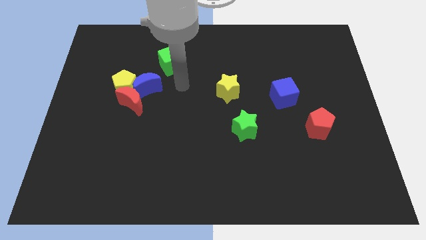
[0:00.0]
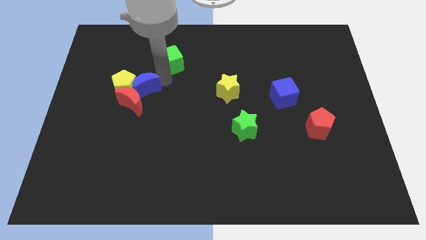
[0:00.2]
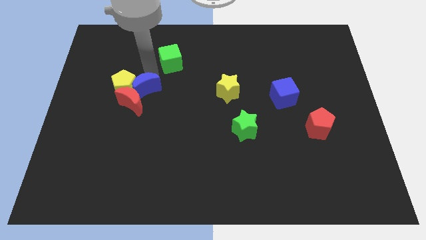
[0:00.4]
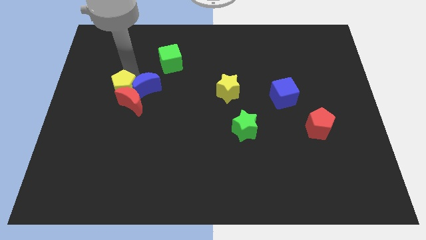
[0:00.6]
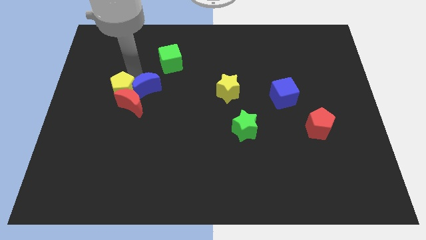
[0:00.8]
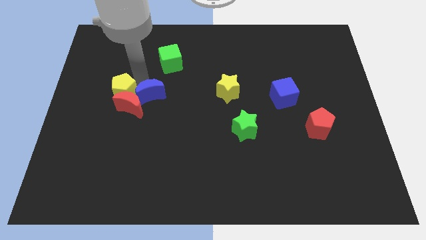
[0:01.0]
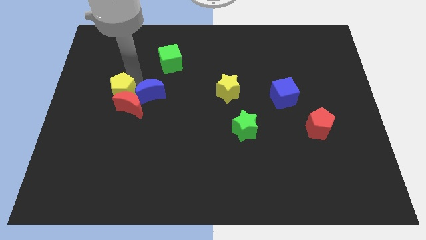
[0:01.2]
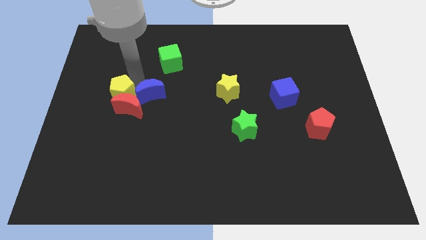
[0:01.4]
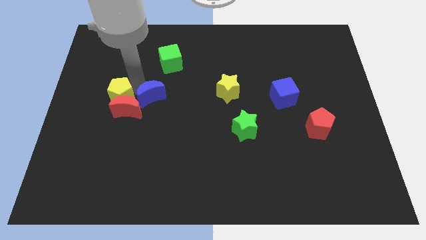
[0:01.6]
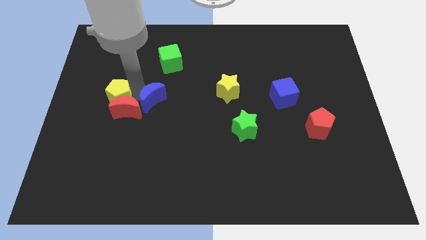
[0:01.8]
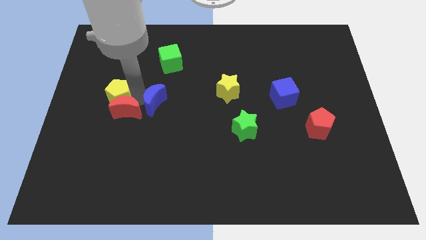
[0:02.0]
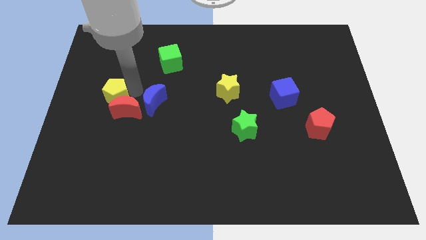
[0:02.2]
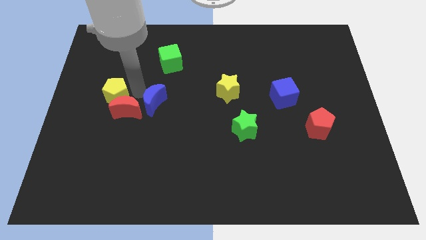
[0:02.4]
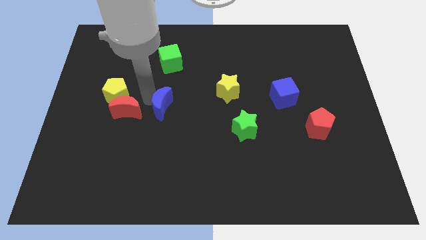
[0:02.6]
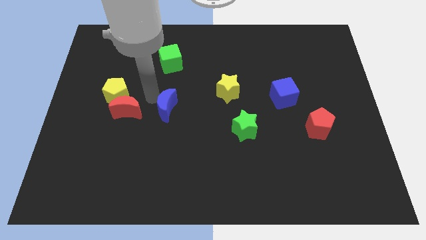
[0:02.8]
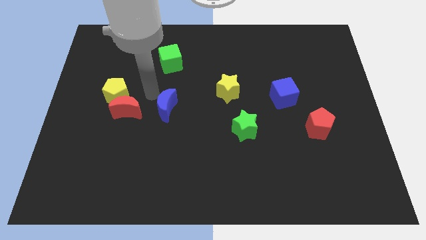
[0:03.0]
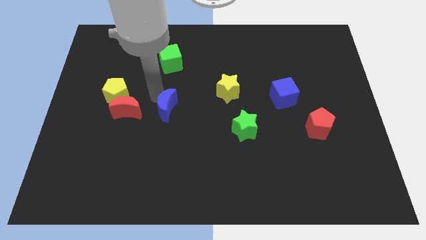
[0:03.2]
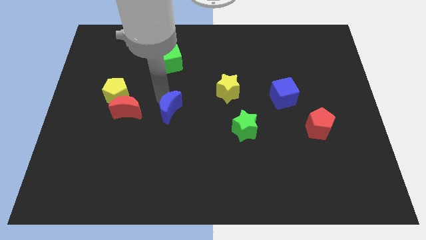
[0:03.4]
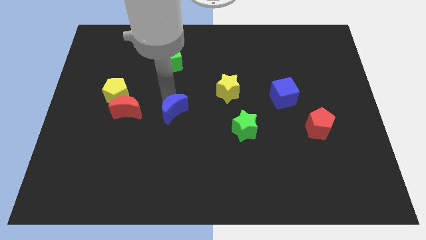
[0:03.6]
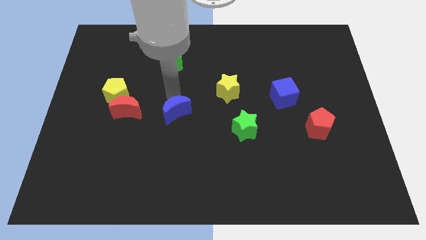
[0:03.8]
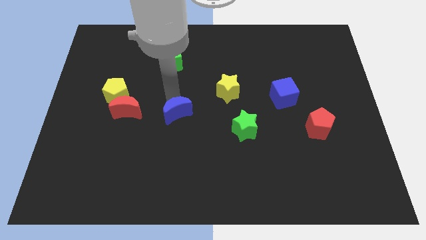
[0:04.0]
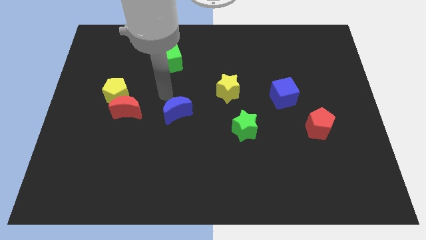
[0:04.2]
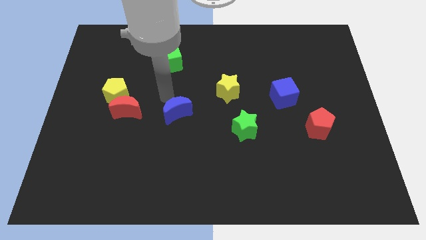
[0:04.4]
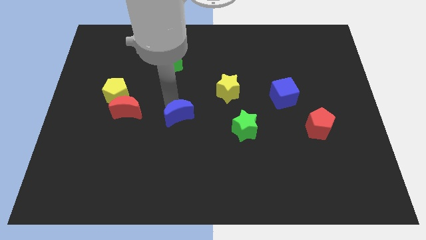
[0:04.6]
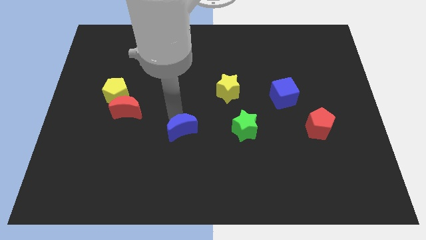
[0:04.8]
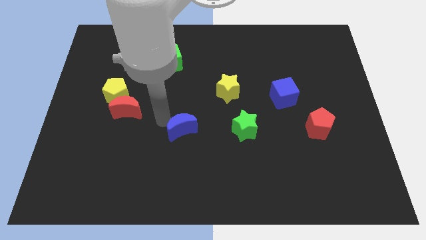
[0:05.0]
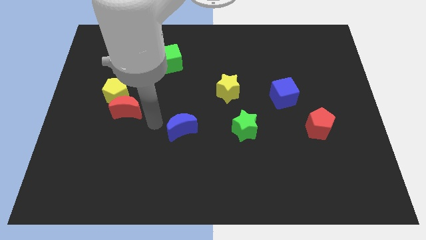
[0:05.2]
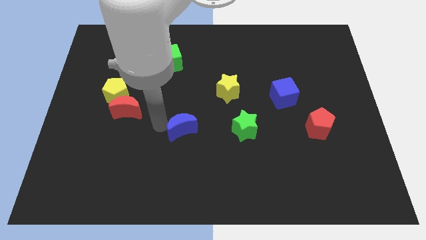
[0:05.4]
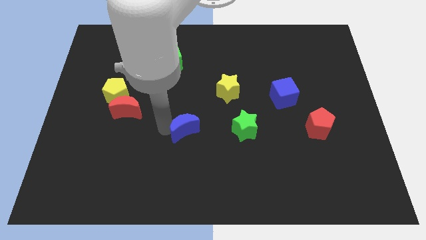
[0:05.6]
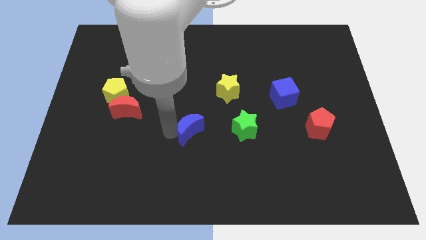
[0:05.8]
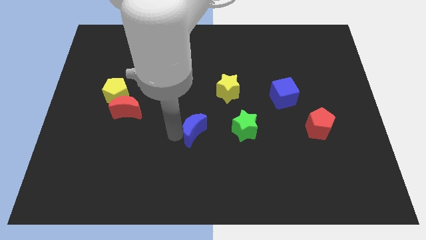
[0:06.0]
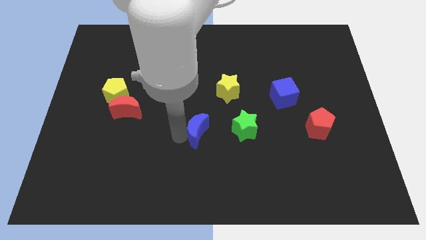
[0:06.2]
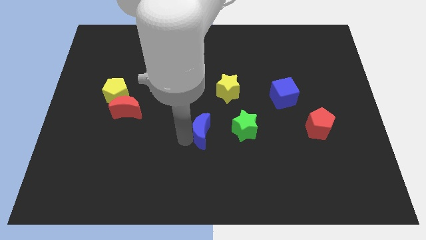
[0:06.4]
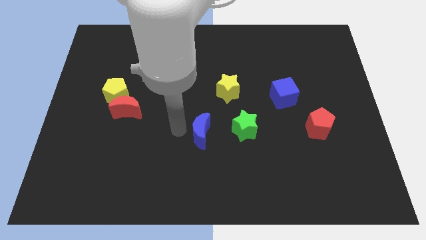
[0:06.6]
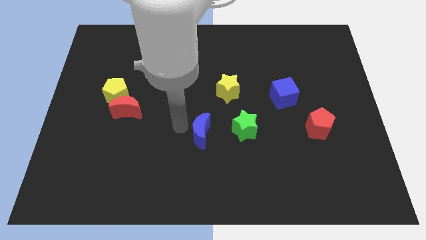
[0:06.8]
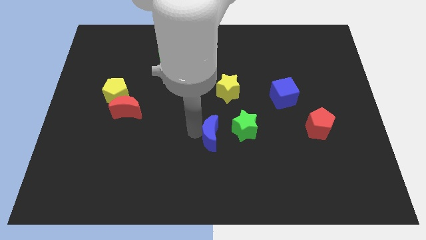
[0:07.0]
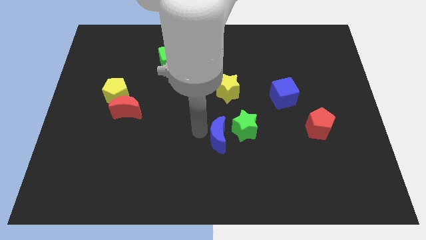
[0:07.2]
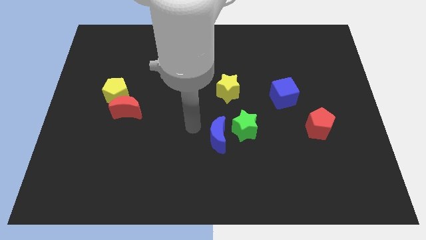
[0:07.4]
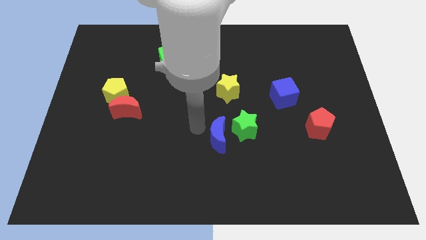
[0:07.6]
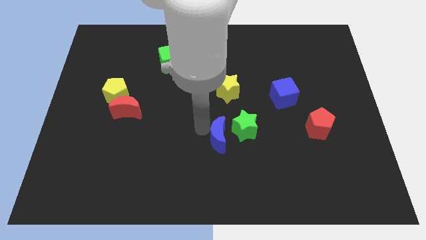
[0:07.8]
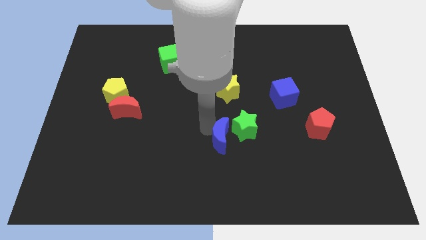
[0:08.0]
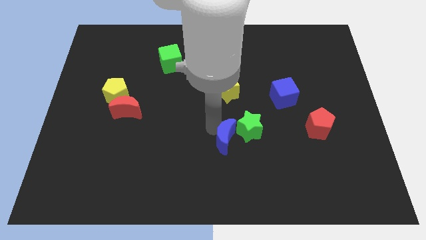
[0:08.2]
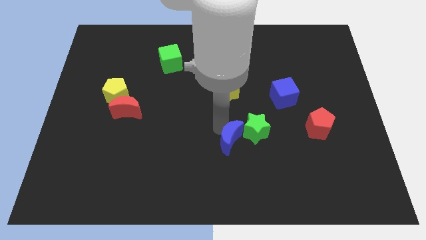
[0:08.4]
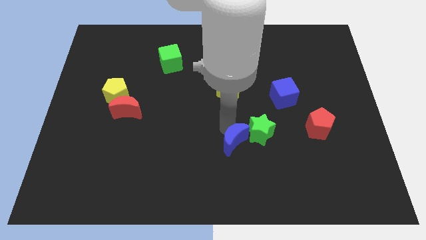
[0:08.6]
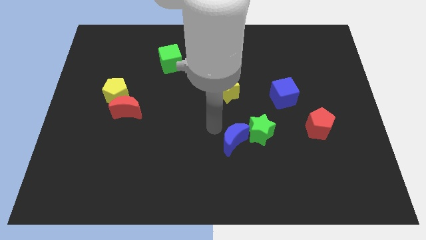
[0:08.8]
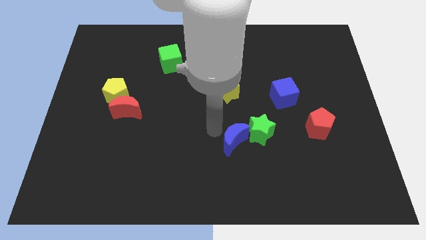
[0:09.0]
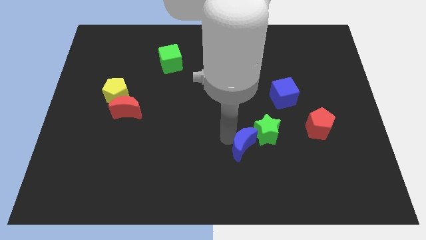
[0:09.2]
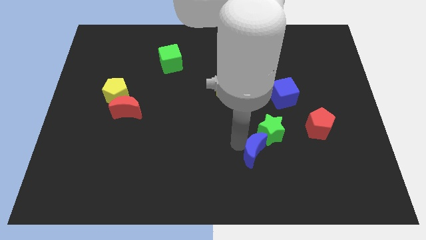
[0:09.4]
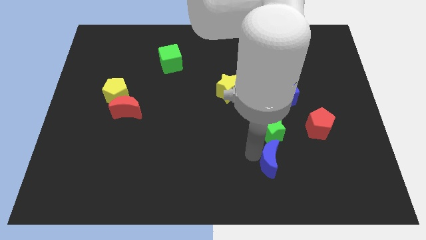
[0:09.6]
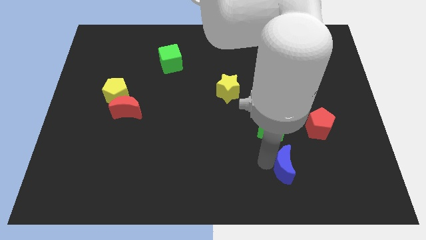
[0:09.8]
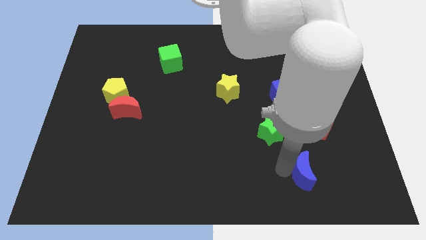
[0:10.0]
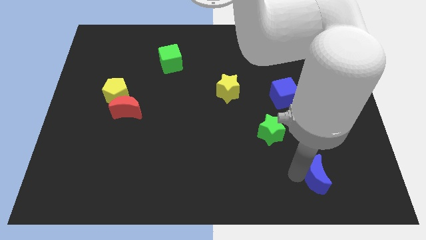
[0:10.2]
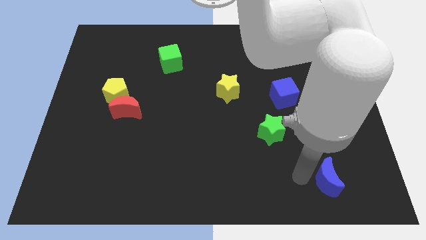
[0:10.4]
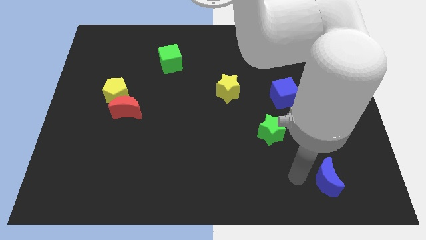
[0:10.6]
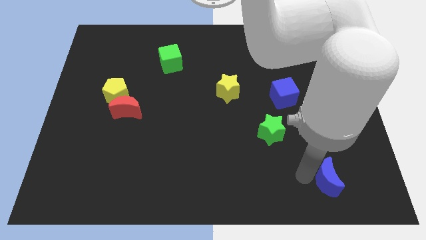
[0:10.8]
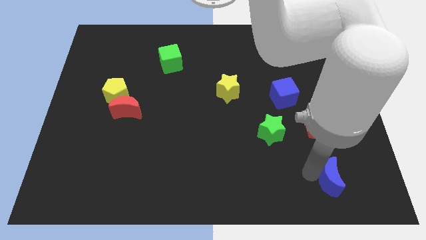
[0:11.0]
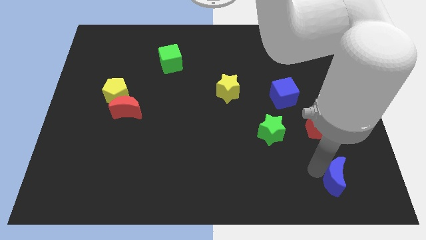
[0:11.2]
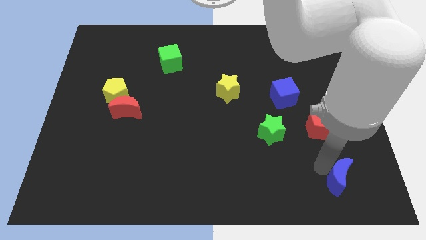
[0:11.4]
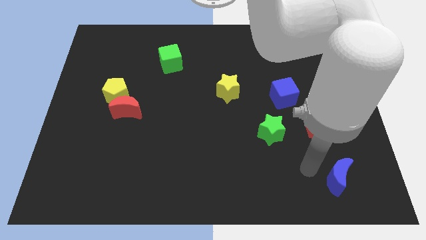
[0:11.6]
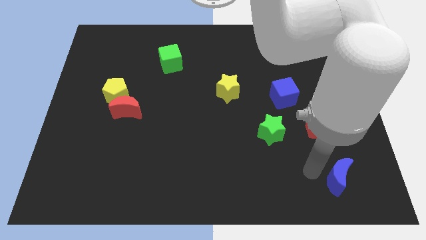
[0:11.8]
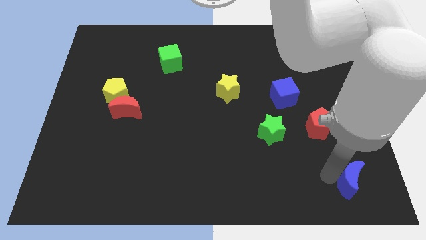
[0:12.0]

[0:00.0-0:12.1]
put the blue moon to the bottom right corner

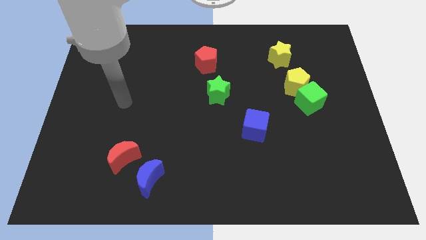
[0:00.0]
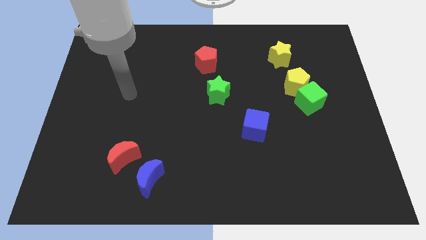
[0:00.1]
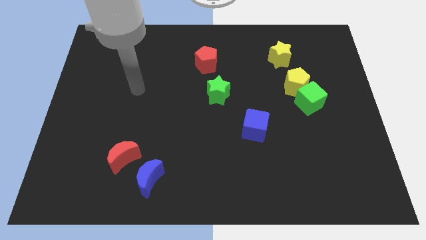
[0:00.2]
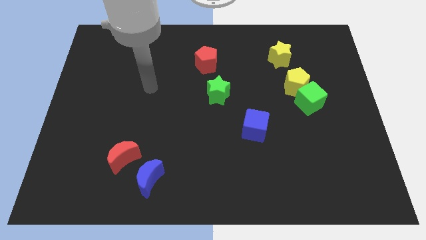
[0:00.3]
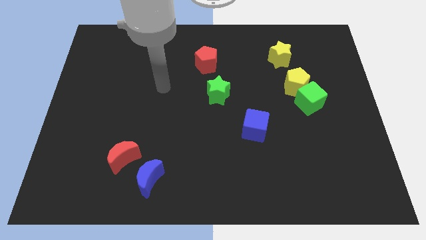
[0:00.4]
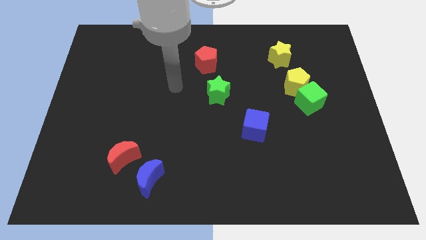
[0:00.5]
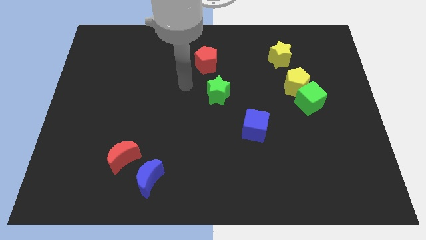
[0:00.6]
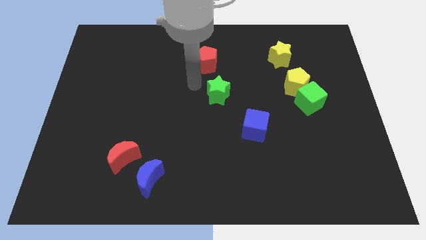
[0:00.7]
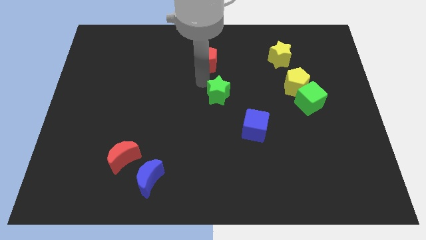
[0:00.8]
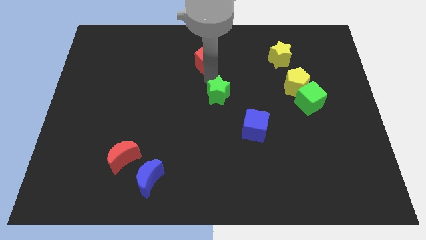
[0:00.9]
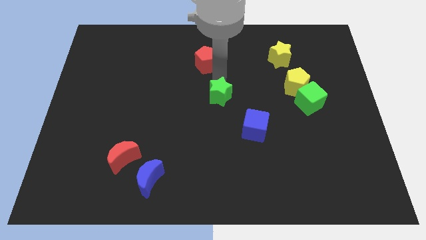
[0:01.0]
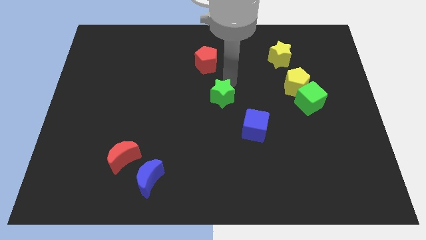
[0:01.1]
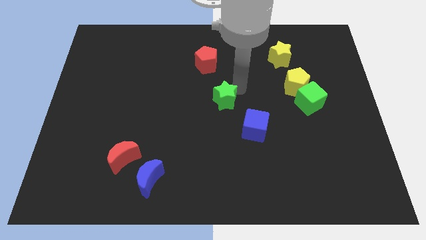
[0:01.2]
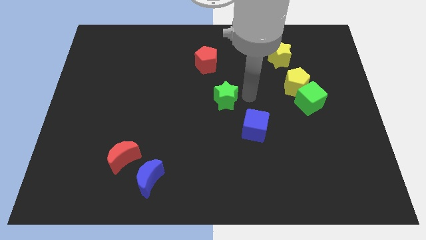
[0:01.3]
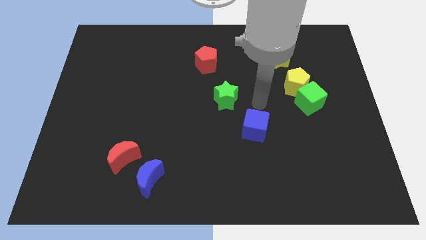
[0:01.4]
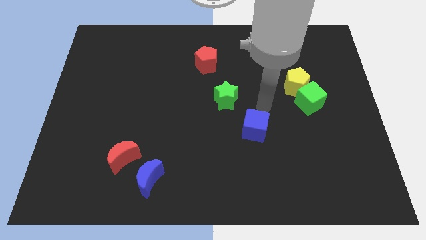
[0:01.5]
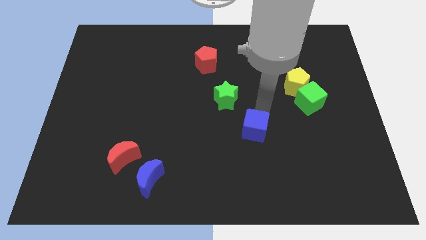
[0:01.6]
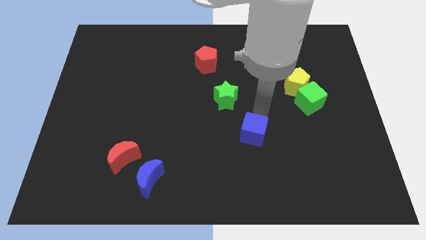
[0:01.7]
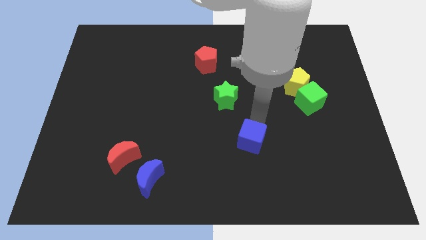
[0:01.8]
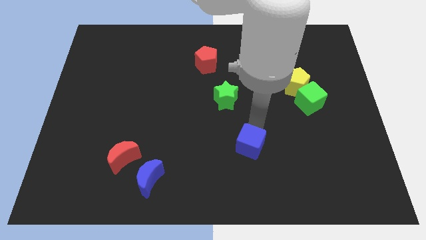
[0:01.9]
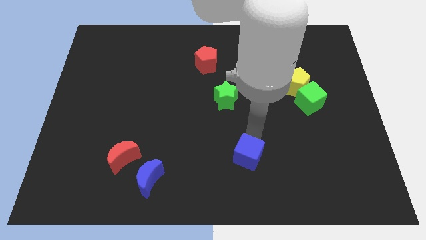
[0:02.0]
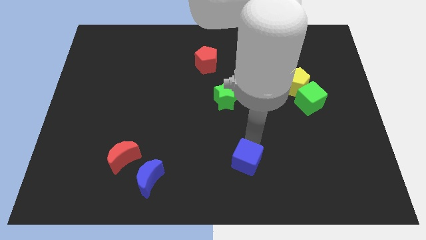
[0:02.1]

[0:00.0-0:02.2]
slide the blue cube to the bottom
